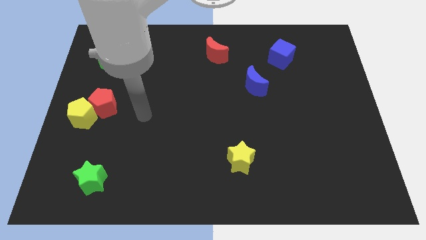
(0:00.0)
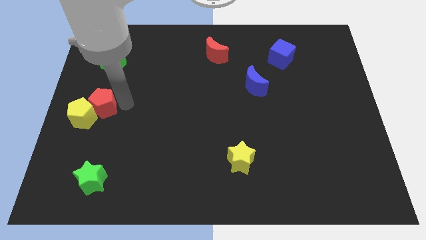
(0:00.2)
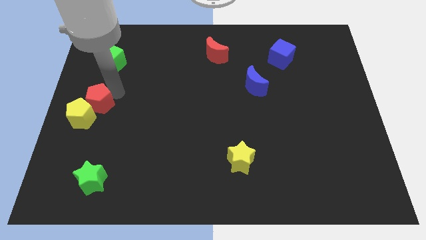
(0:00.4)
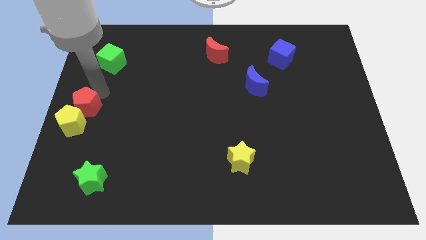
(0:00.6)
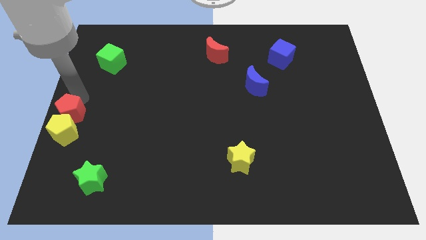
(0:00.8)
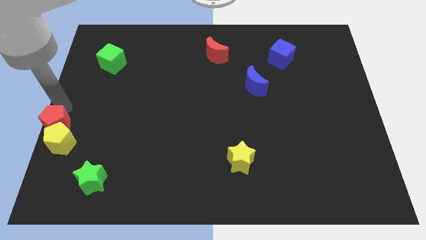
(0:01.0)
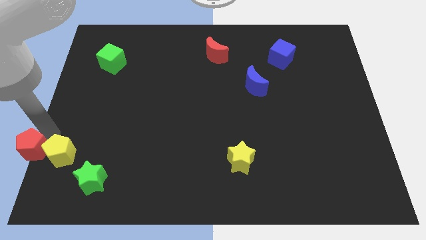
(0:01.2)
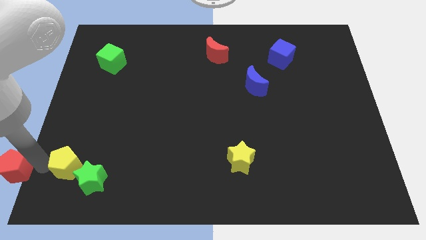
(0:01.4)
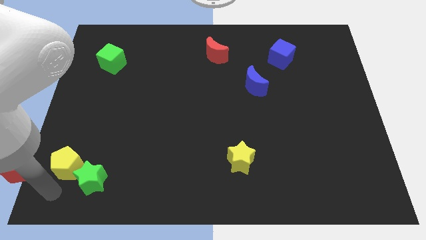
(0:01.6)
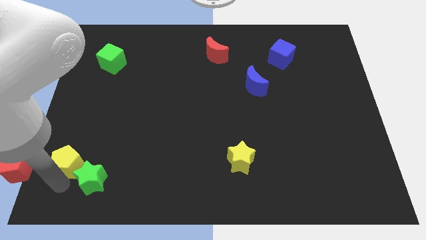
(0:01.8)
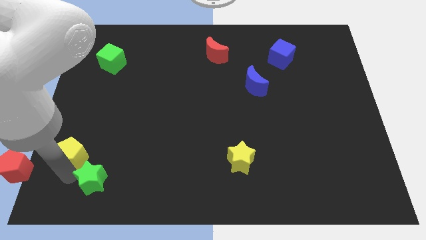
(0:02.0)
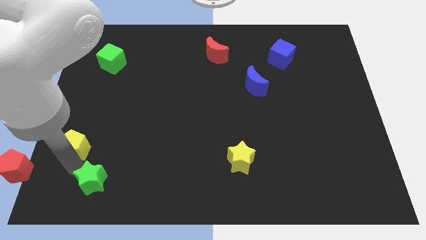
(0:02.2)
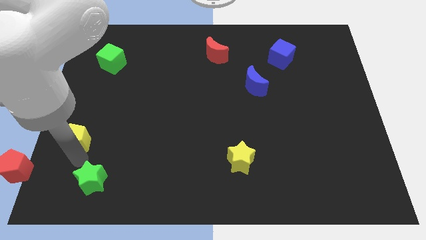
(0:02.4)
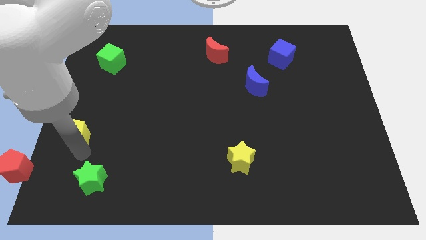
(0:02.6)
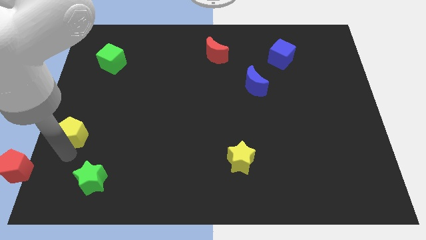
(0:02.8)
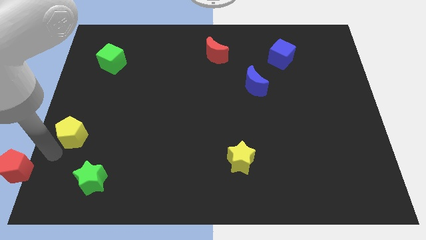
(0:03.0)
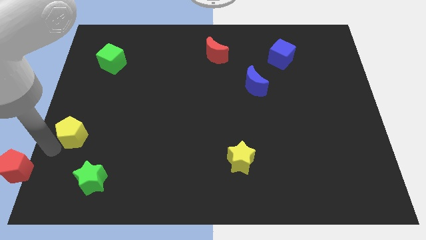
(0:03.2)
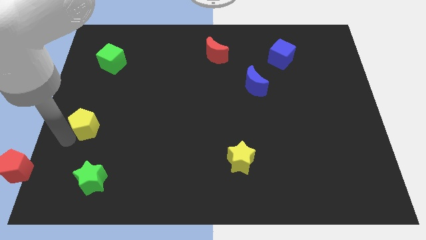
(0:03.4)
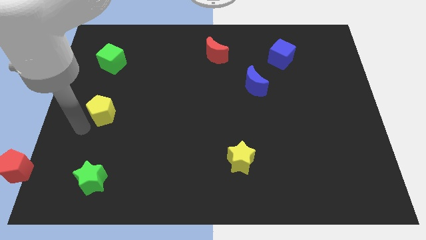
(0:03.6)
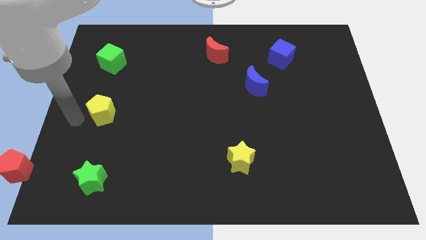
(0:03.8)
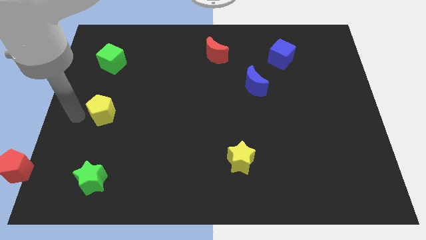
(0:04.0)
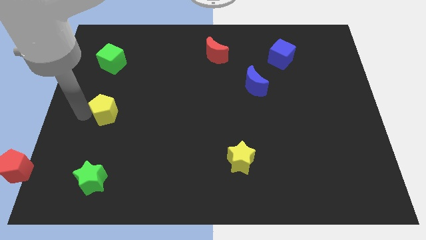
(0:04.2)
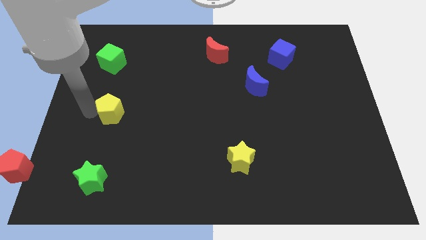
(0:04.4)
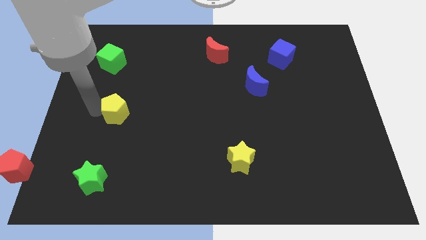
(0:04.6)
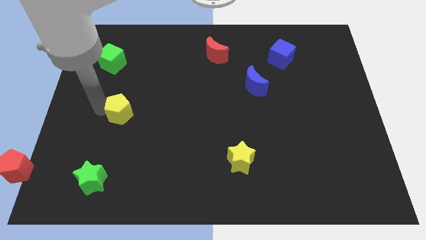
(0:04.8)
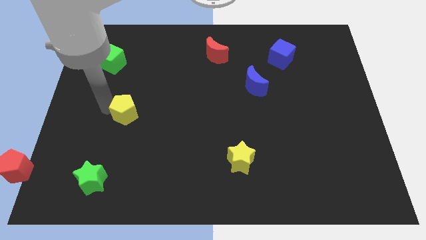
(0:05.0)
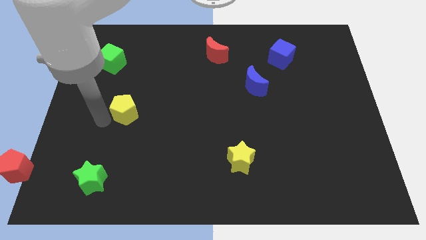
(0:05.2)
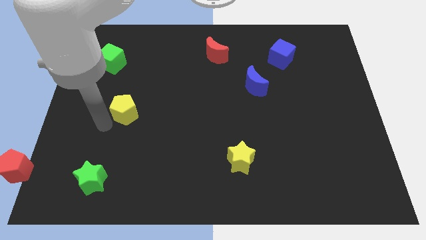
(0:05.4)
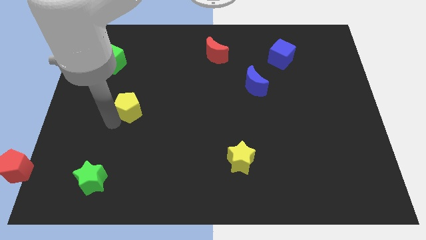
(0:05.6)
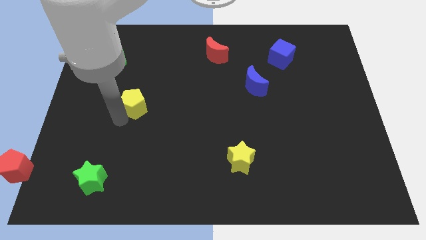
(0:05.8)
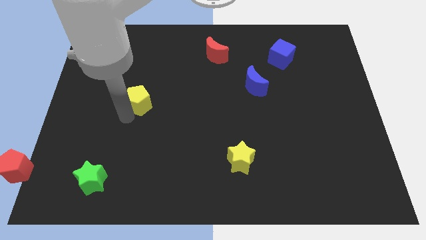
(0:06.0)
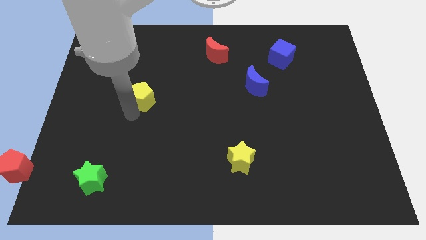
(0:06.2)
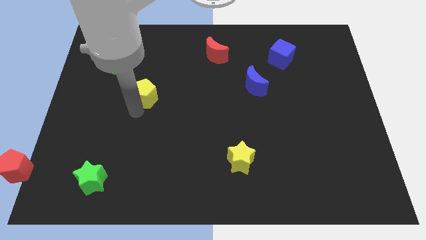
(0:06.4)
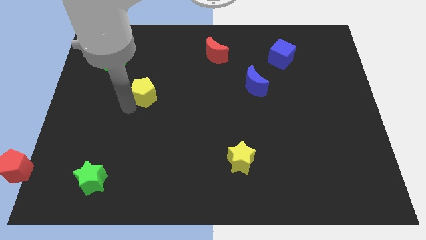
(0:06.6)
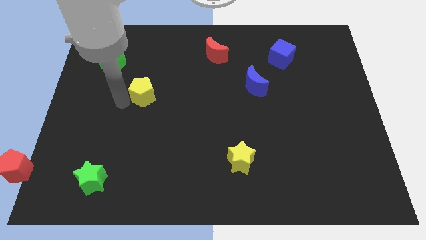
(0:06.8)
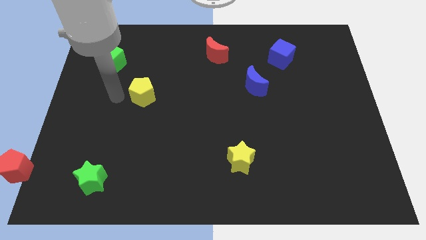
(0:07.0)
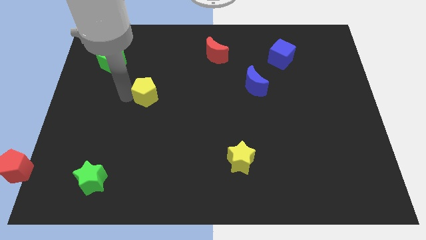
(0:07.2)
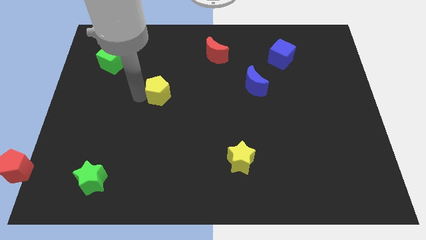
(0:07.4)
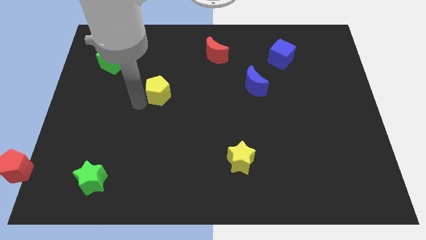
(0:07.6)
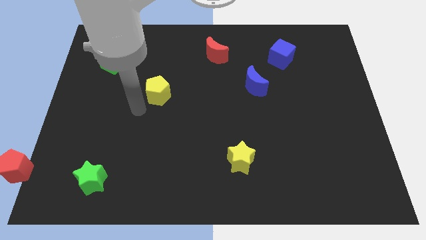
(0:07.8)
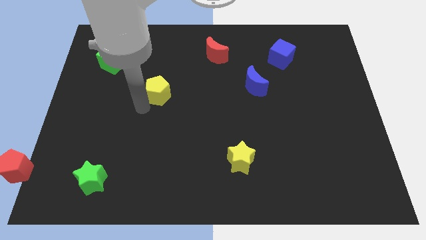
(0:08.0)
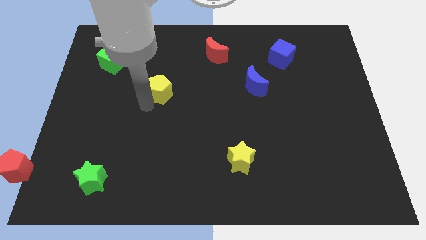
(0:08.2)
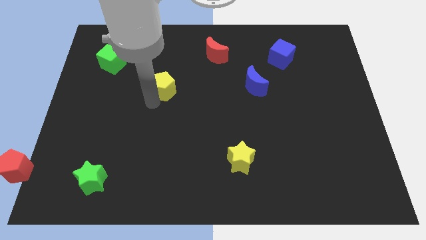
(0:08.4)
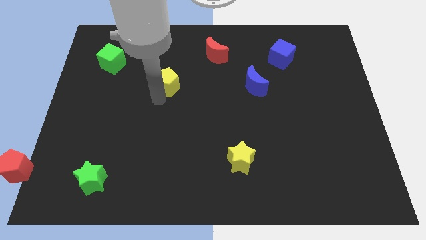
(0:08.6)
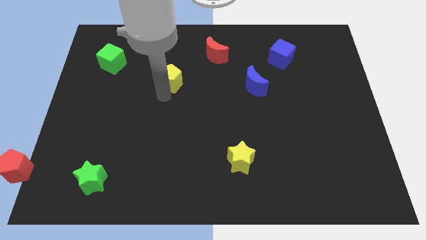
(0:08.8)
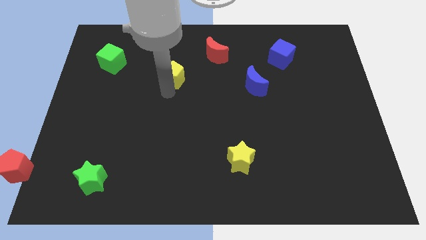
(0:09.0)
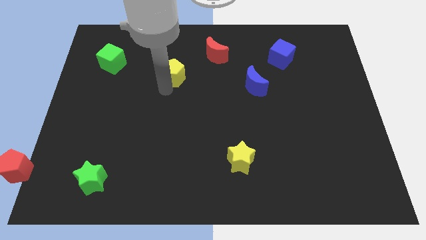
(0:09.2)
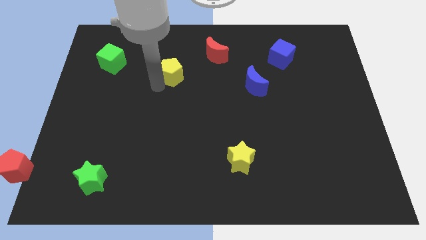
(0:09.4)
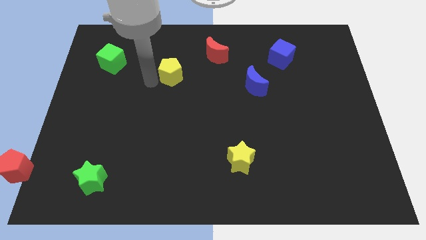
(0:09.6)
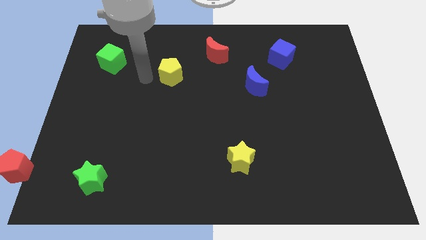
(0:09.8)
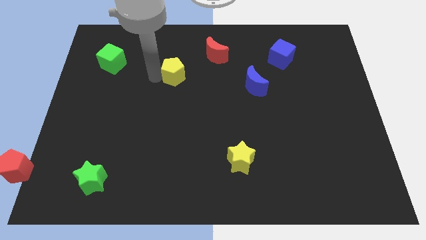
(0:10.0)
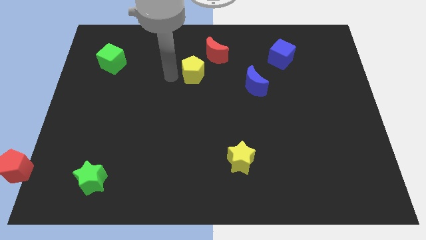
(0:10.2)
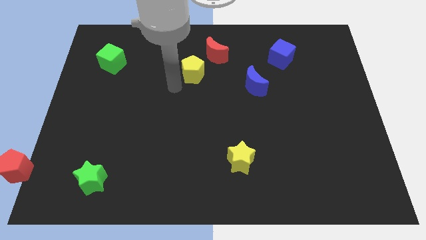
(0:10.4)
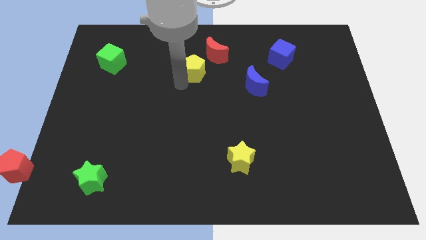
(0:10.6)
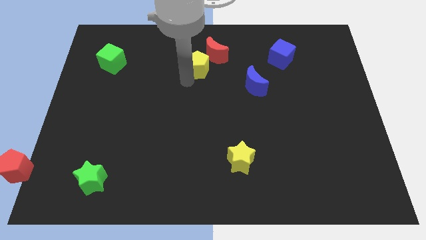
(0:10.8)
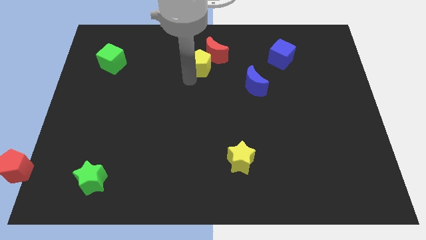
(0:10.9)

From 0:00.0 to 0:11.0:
slide the yellow pentagon next to the red moon

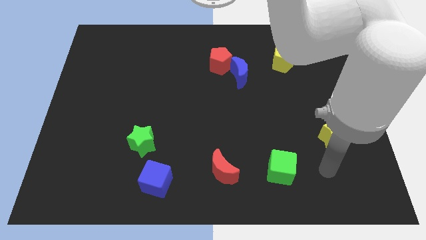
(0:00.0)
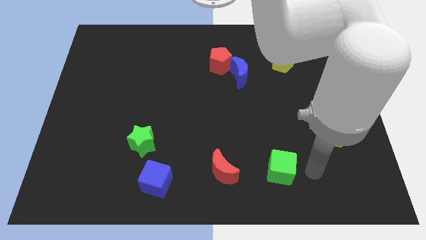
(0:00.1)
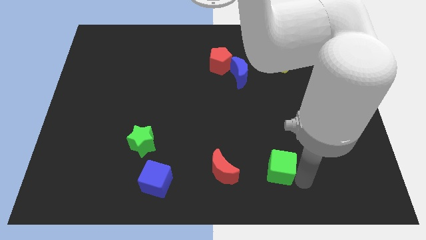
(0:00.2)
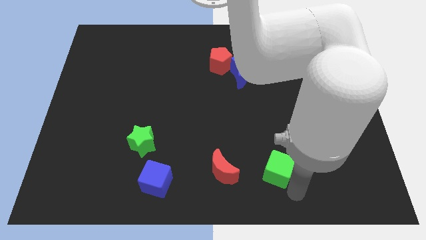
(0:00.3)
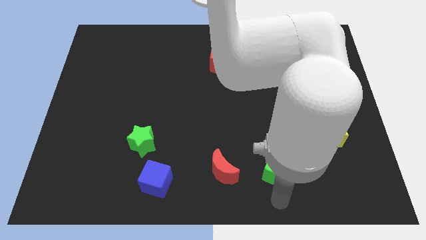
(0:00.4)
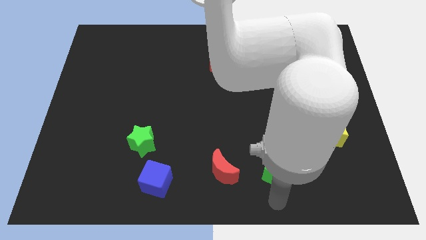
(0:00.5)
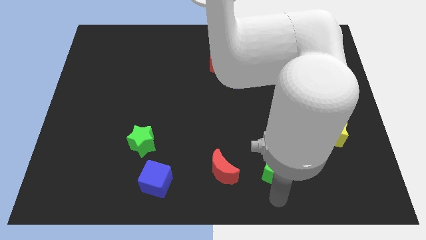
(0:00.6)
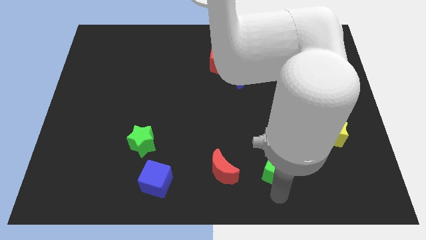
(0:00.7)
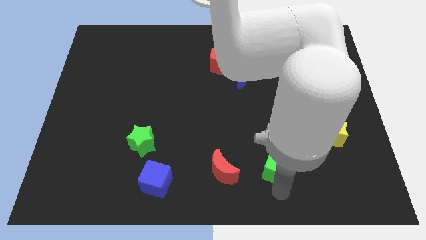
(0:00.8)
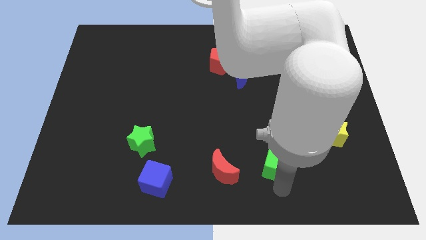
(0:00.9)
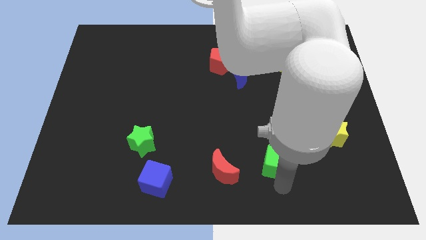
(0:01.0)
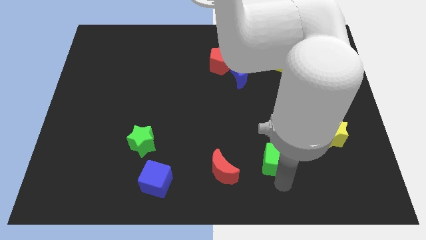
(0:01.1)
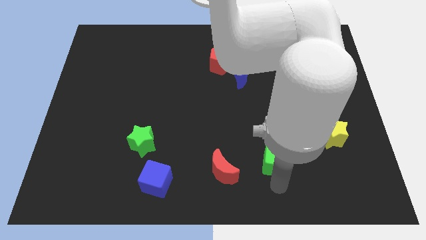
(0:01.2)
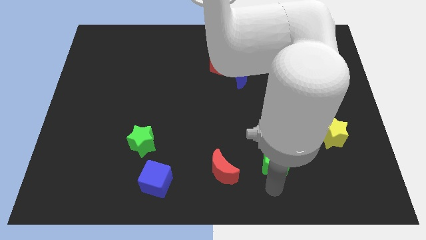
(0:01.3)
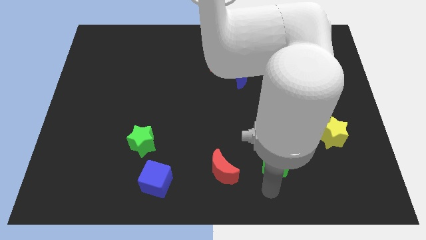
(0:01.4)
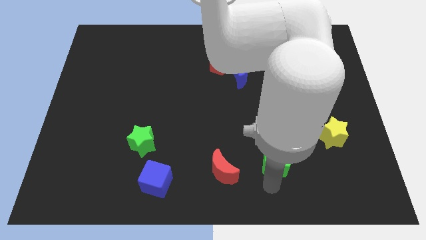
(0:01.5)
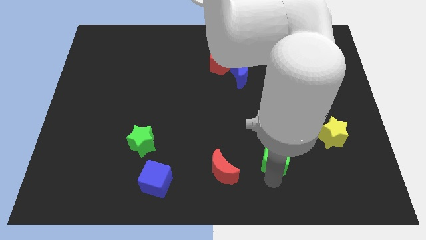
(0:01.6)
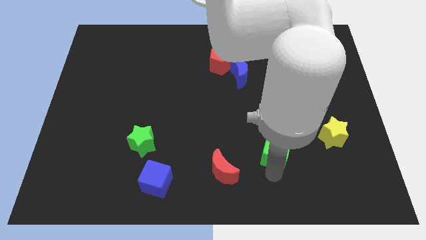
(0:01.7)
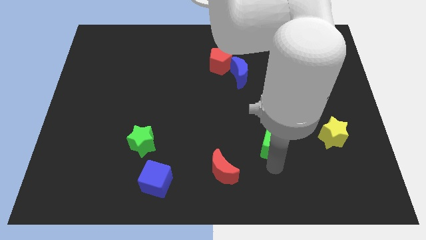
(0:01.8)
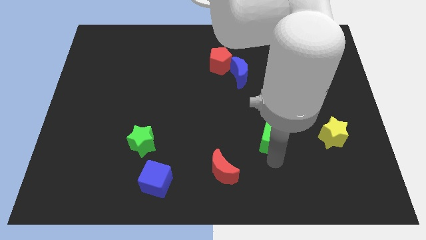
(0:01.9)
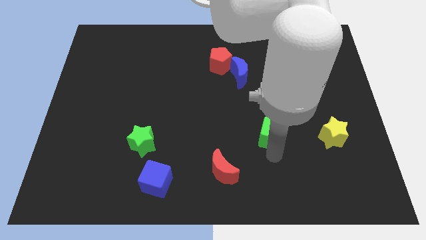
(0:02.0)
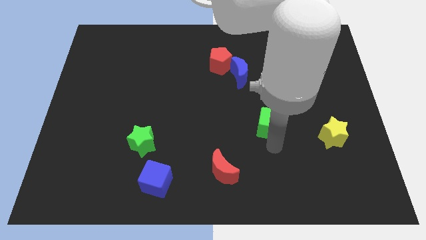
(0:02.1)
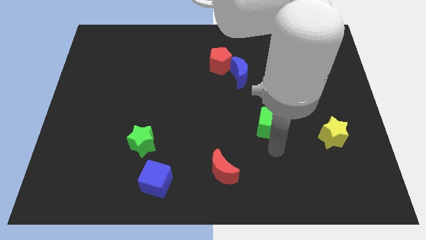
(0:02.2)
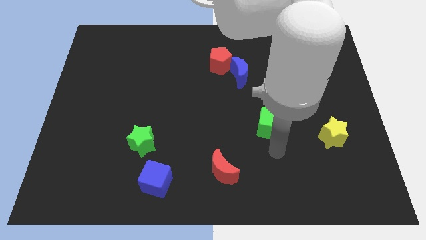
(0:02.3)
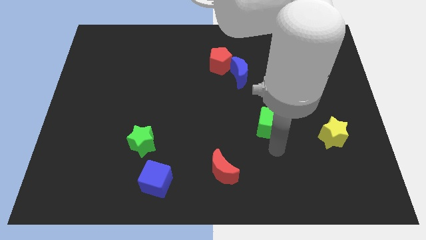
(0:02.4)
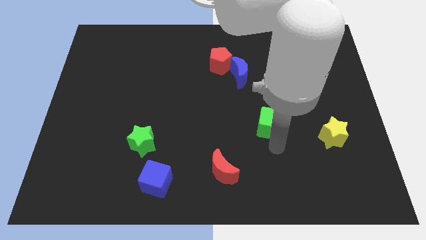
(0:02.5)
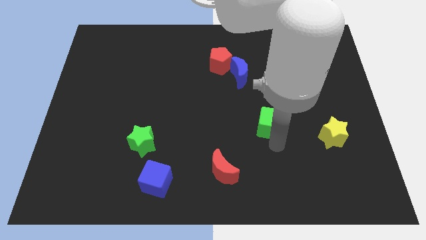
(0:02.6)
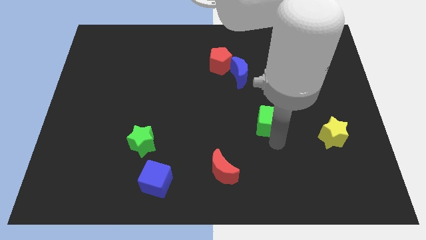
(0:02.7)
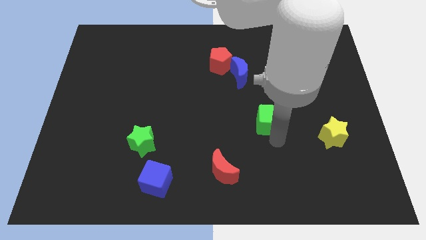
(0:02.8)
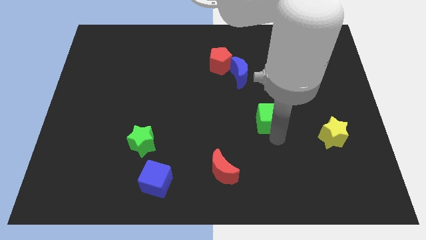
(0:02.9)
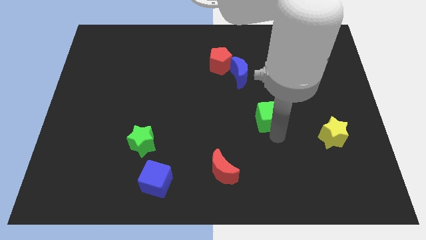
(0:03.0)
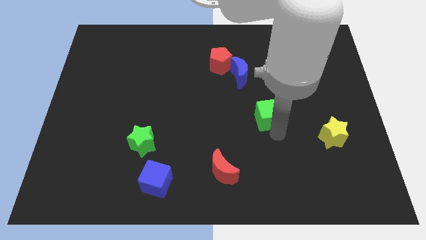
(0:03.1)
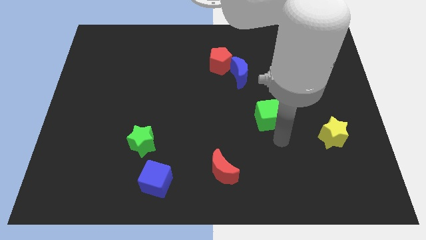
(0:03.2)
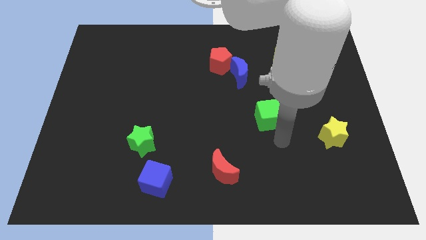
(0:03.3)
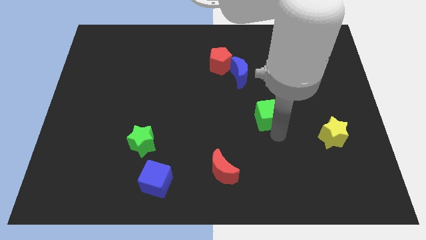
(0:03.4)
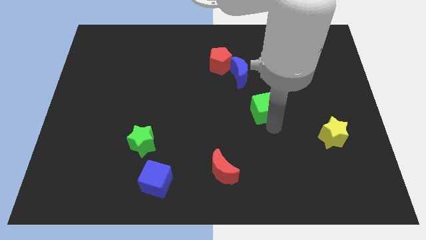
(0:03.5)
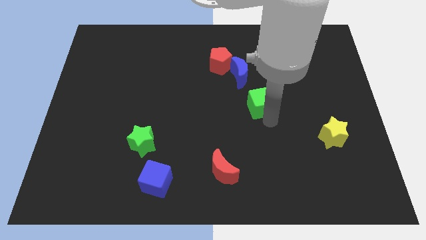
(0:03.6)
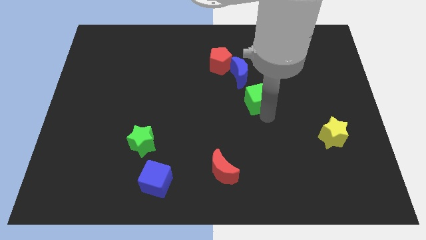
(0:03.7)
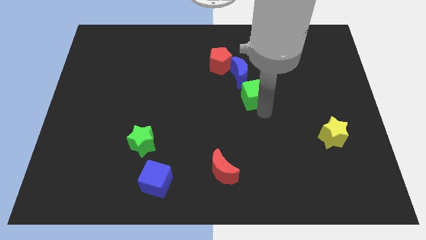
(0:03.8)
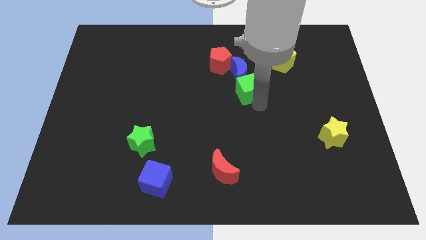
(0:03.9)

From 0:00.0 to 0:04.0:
put the green cube next to the blue moon
